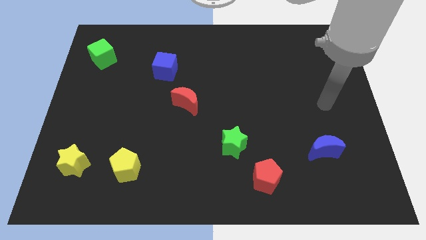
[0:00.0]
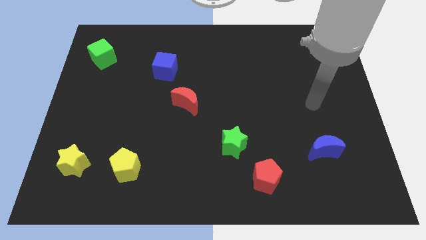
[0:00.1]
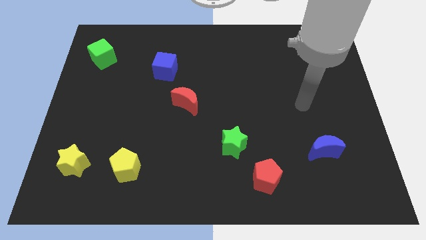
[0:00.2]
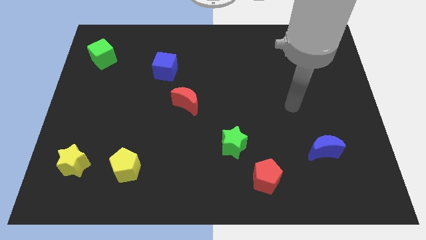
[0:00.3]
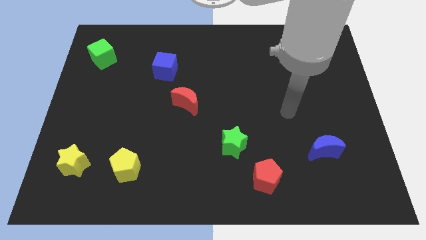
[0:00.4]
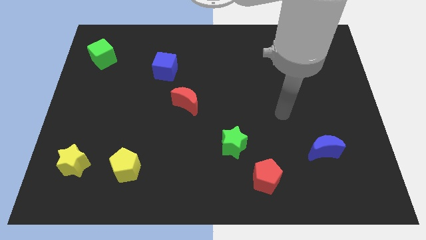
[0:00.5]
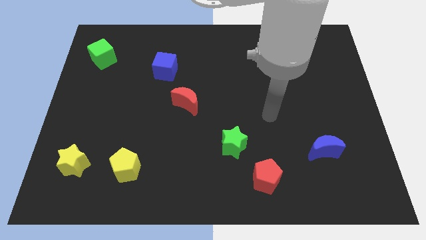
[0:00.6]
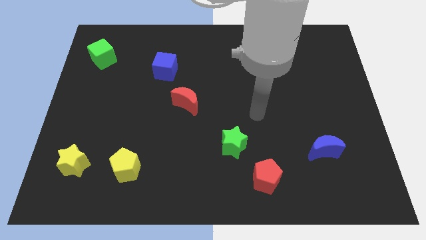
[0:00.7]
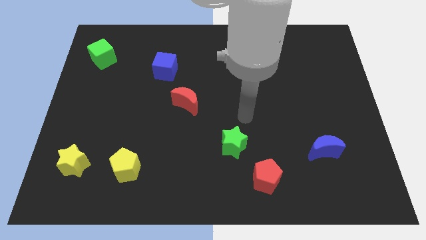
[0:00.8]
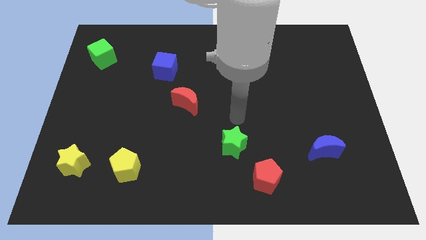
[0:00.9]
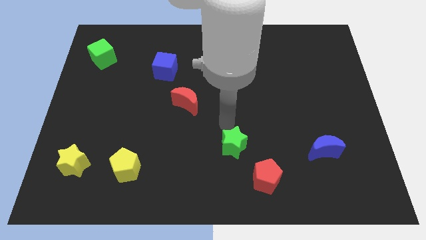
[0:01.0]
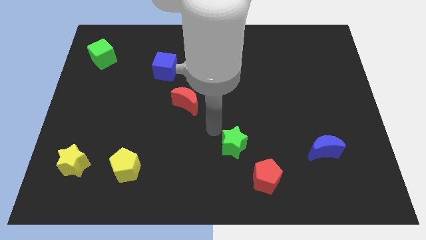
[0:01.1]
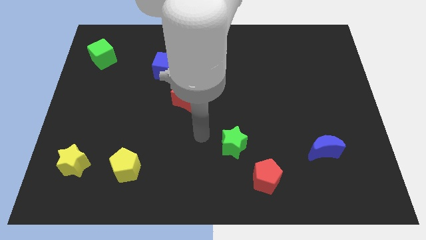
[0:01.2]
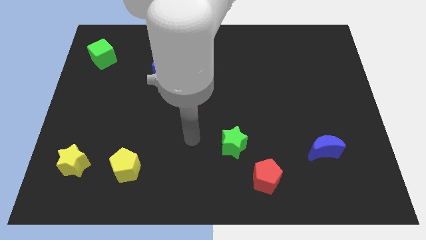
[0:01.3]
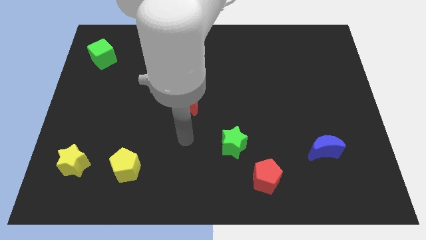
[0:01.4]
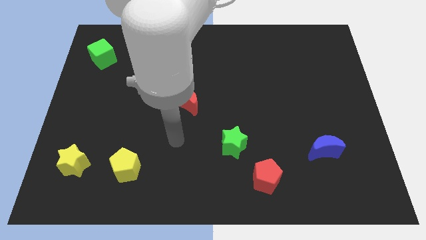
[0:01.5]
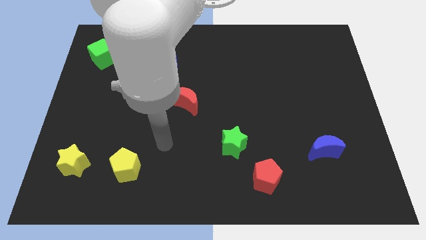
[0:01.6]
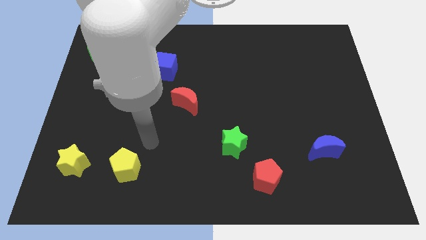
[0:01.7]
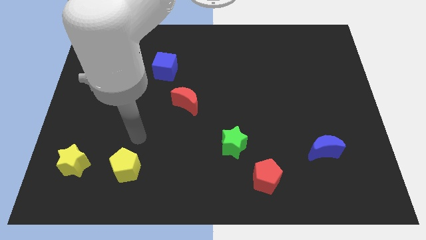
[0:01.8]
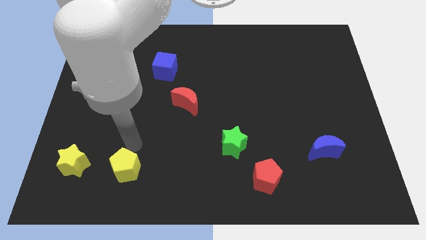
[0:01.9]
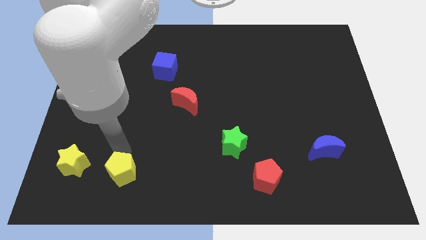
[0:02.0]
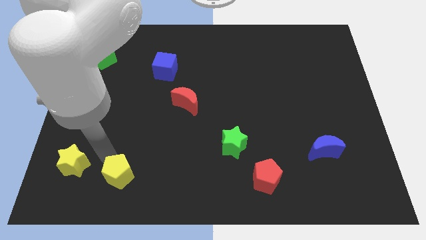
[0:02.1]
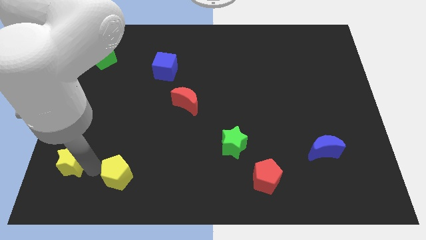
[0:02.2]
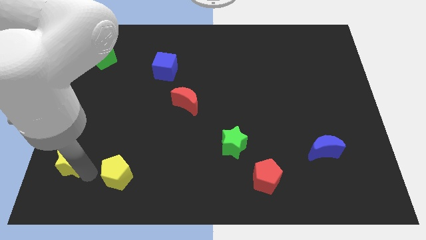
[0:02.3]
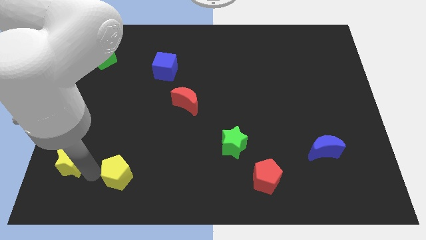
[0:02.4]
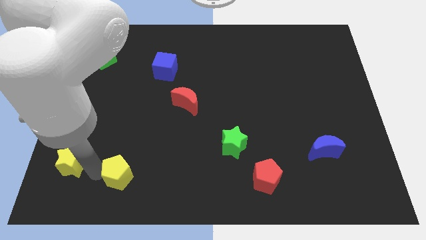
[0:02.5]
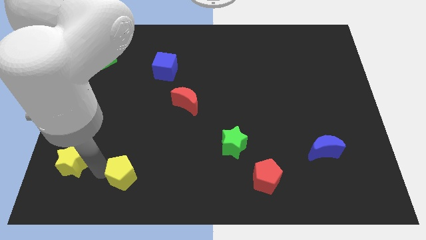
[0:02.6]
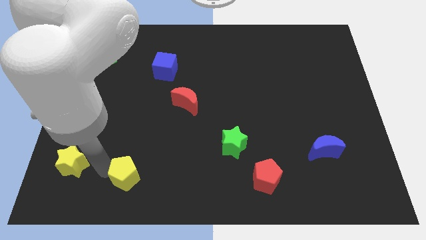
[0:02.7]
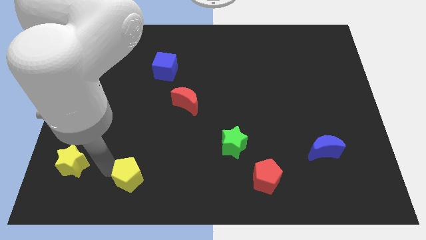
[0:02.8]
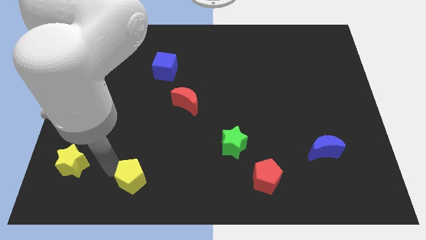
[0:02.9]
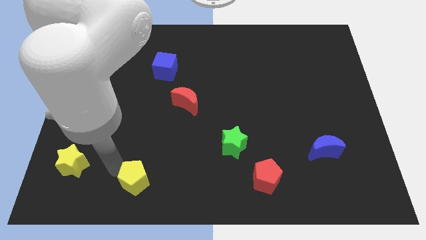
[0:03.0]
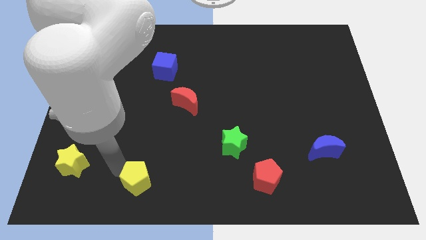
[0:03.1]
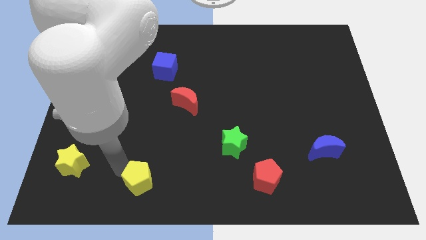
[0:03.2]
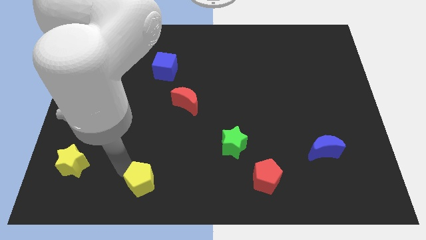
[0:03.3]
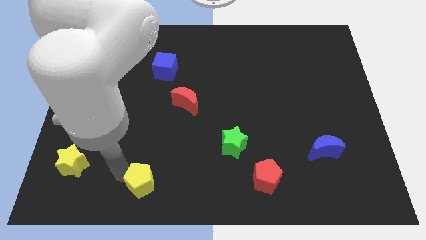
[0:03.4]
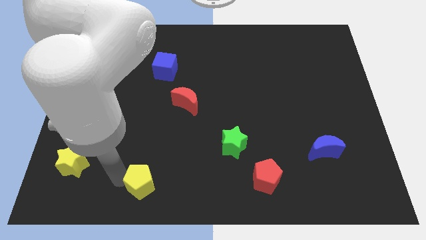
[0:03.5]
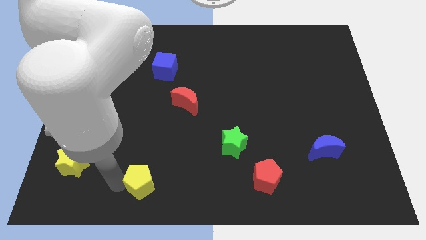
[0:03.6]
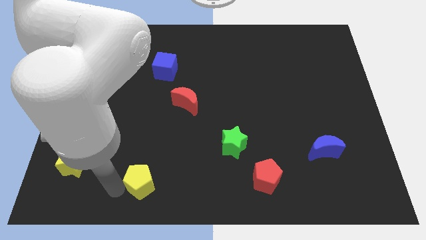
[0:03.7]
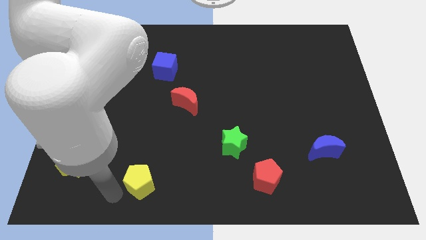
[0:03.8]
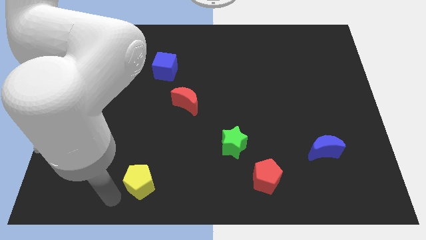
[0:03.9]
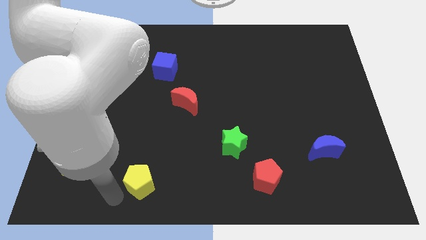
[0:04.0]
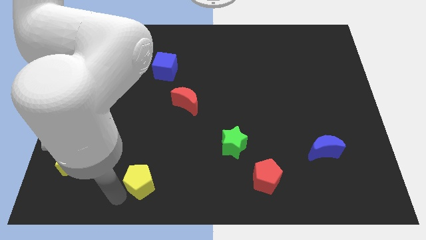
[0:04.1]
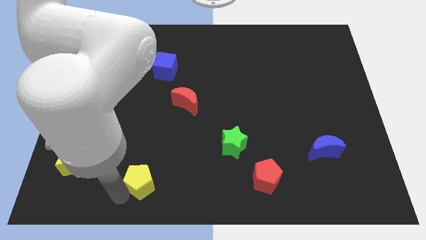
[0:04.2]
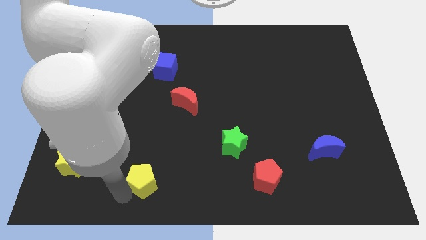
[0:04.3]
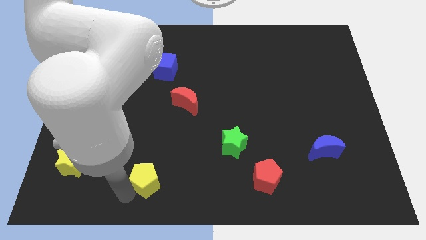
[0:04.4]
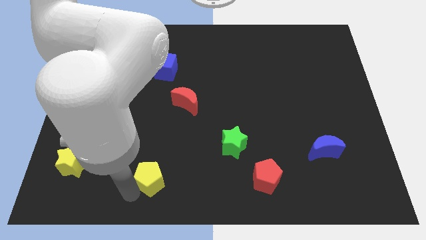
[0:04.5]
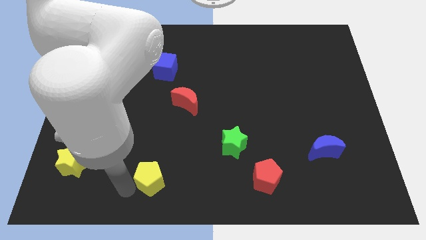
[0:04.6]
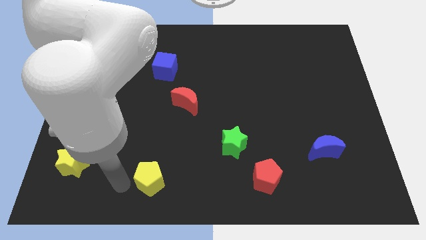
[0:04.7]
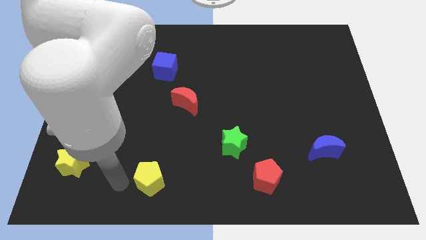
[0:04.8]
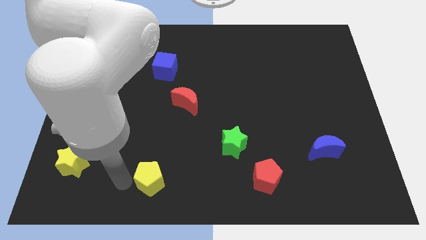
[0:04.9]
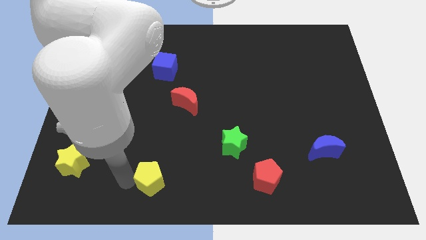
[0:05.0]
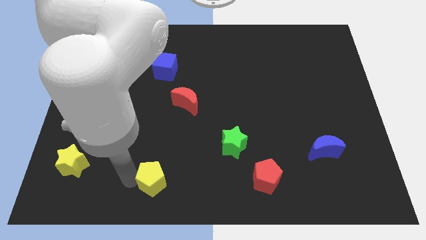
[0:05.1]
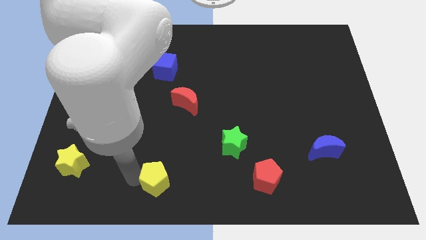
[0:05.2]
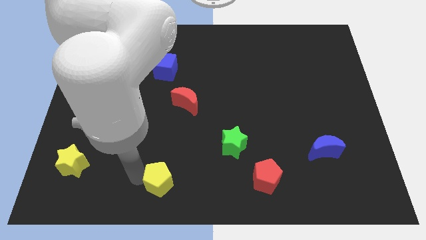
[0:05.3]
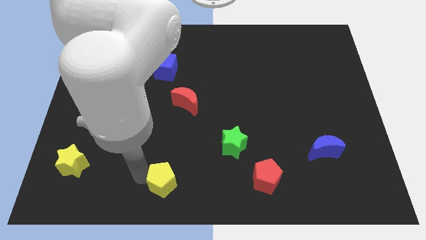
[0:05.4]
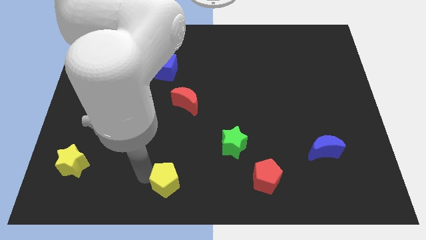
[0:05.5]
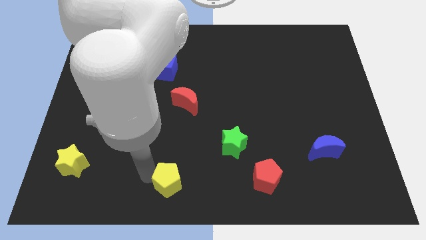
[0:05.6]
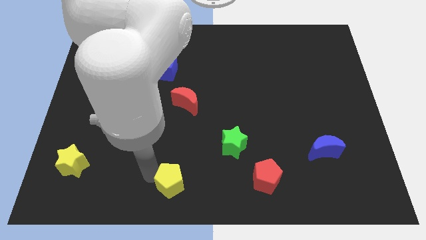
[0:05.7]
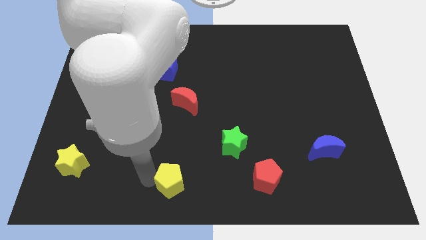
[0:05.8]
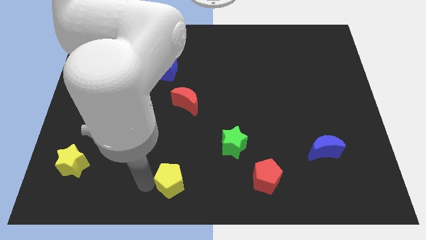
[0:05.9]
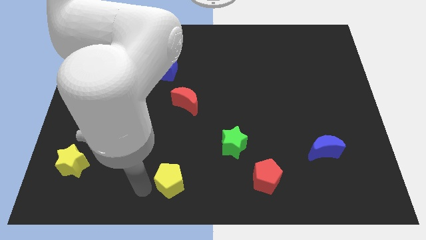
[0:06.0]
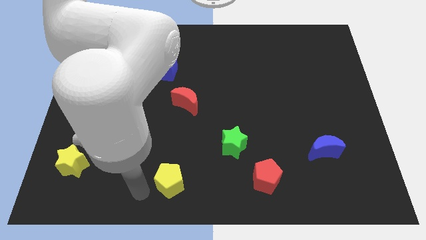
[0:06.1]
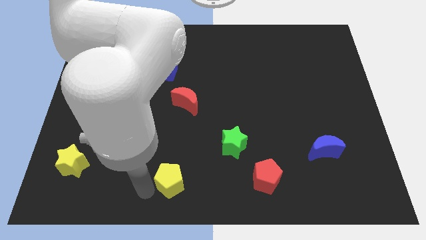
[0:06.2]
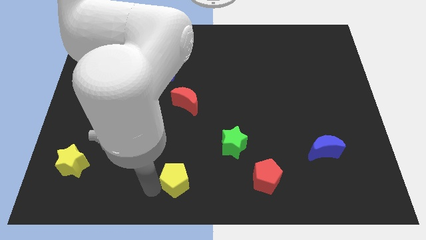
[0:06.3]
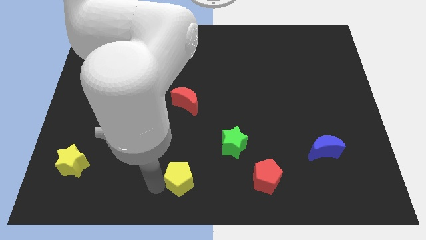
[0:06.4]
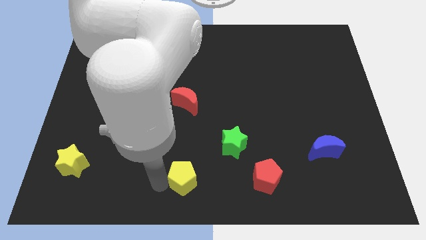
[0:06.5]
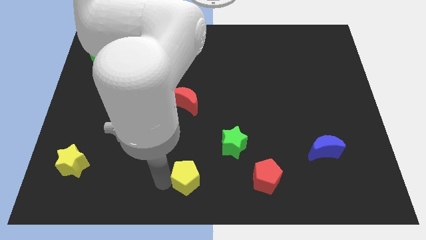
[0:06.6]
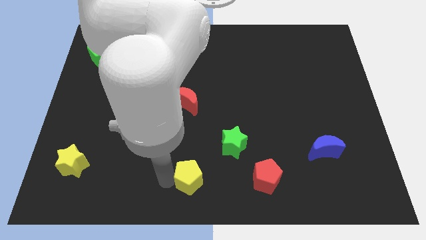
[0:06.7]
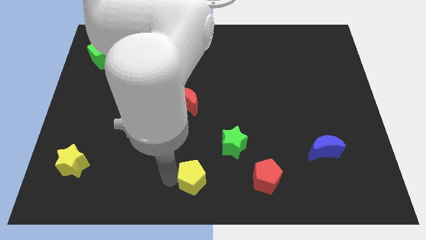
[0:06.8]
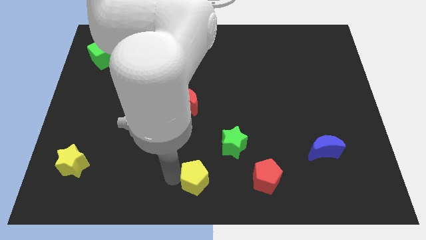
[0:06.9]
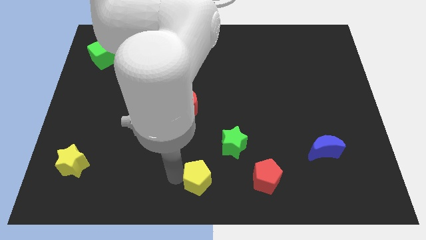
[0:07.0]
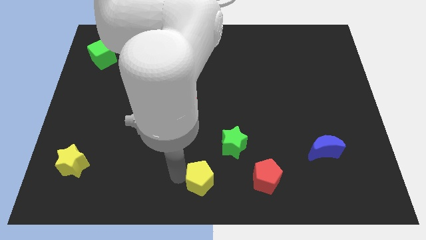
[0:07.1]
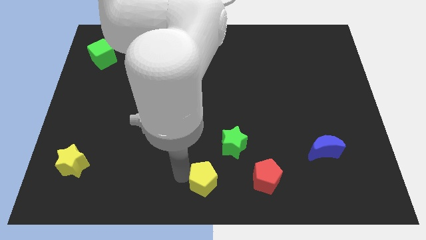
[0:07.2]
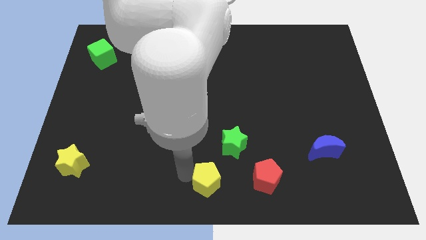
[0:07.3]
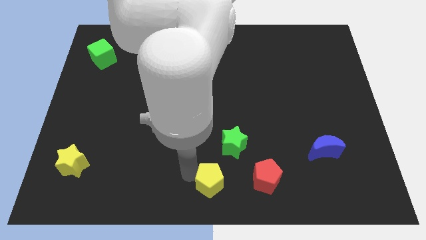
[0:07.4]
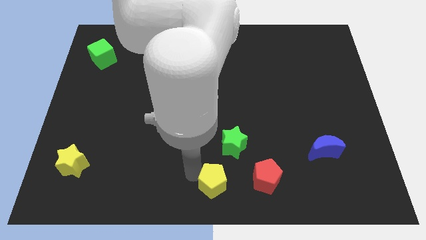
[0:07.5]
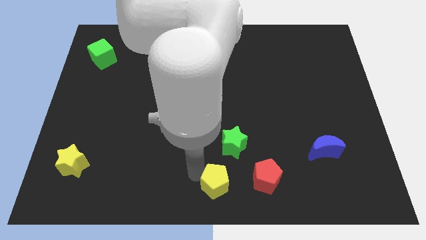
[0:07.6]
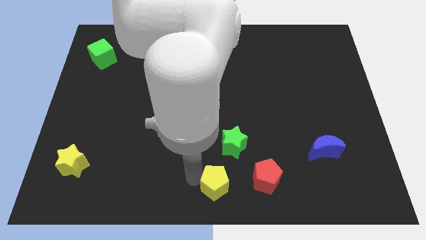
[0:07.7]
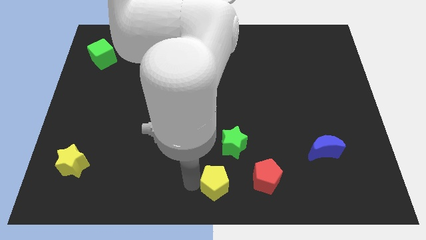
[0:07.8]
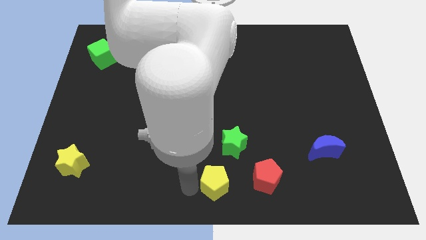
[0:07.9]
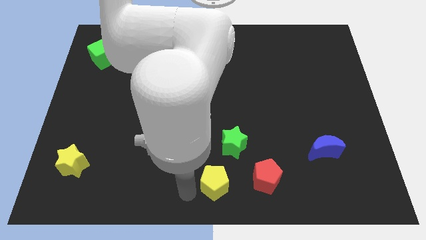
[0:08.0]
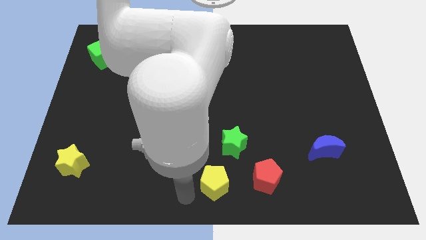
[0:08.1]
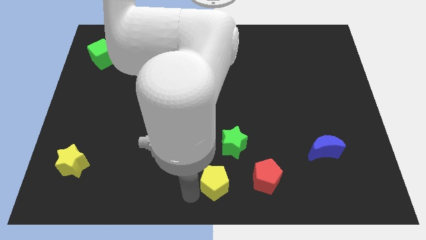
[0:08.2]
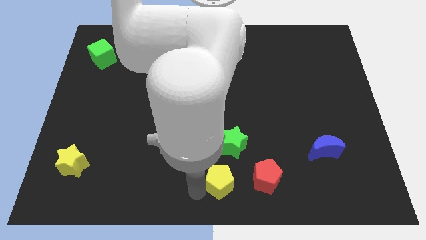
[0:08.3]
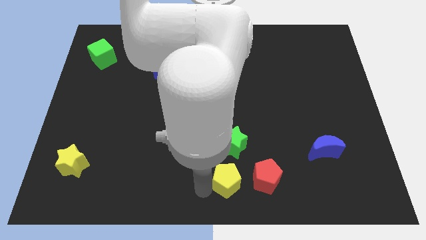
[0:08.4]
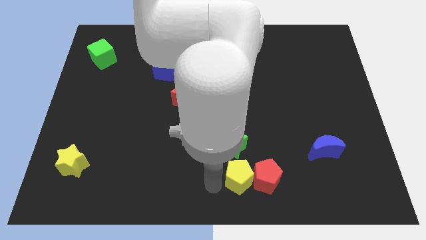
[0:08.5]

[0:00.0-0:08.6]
put the yellow pentagon towards the red pentagon
